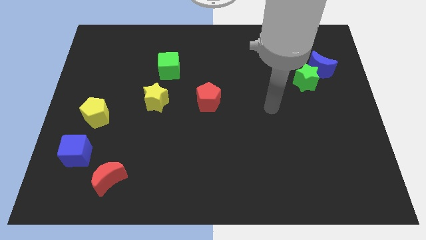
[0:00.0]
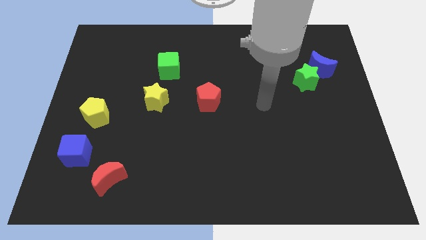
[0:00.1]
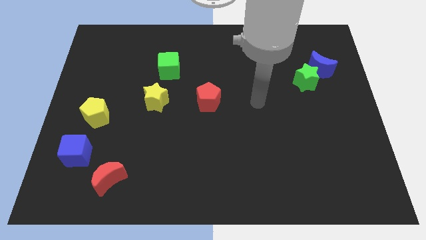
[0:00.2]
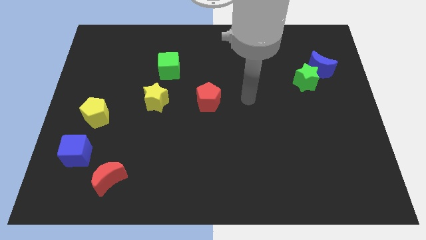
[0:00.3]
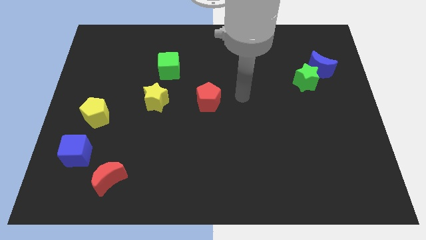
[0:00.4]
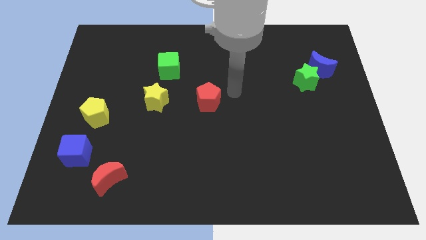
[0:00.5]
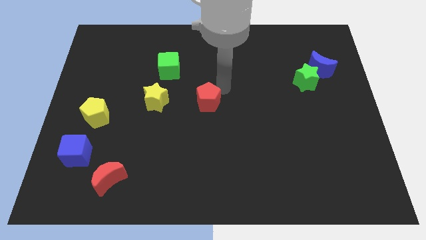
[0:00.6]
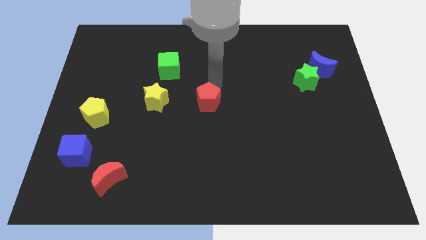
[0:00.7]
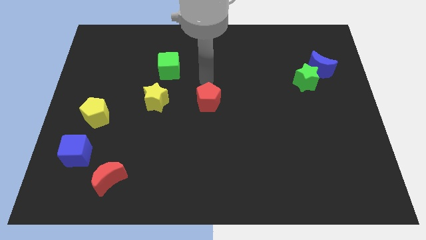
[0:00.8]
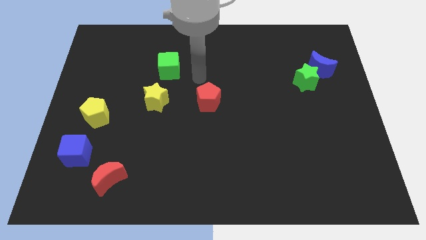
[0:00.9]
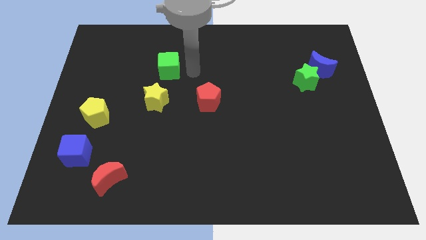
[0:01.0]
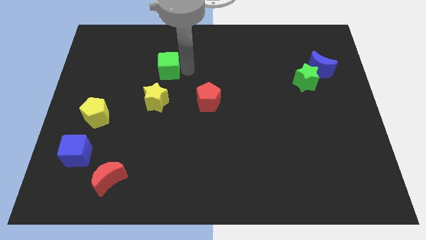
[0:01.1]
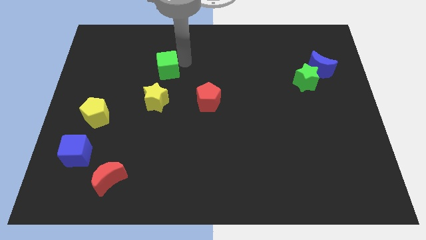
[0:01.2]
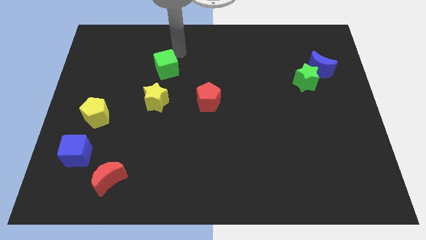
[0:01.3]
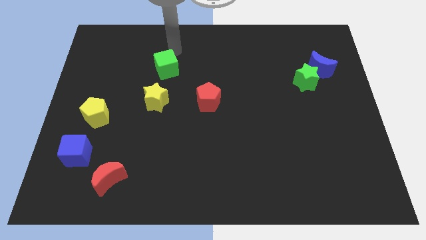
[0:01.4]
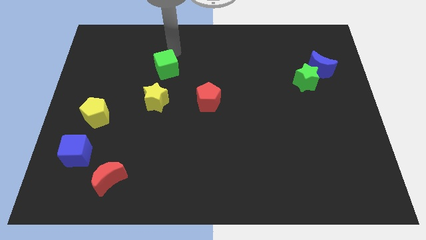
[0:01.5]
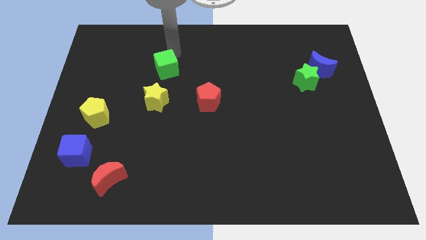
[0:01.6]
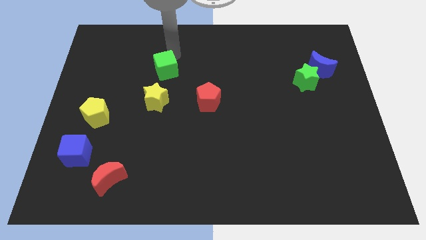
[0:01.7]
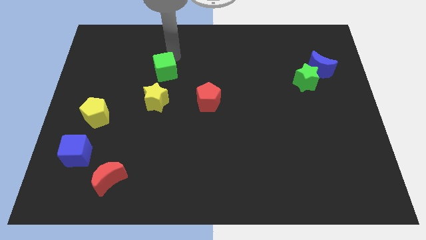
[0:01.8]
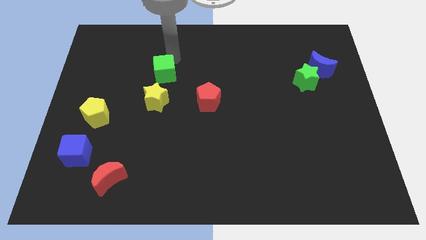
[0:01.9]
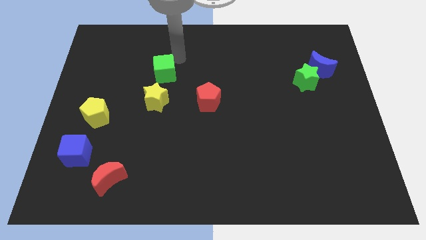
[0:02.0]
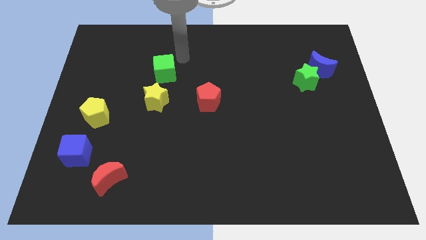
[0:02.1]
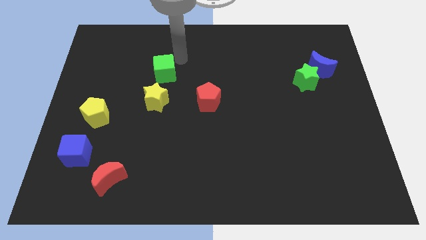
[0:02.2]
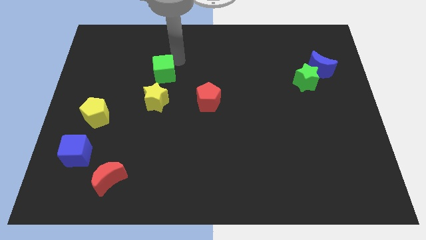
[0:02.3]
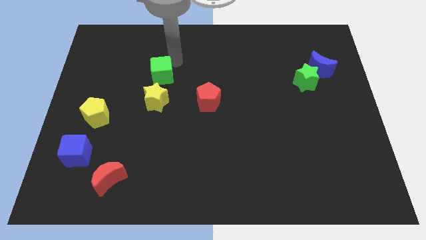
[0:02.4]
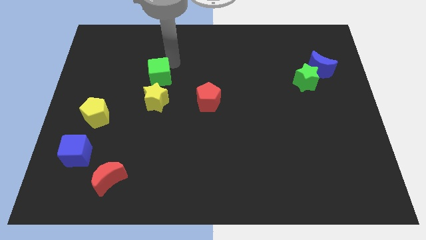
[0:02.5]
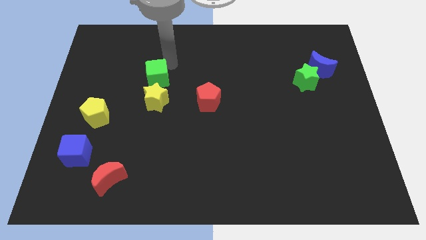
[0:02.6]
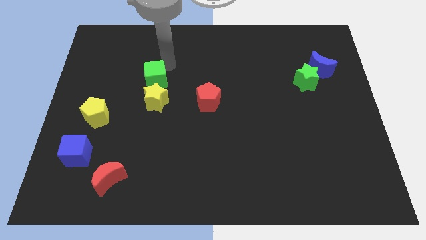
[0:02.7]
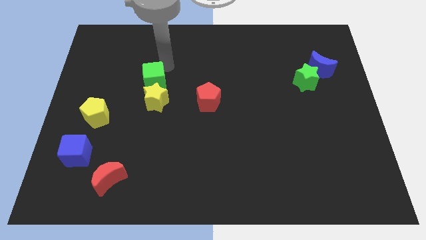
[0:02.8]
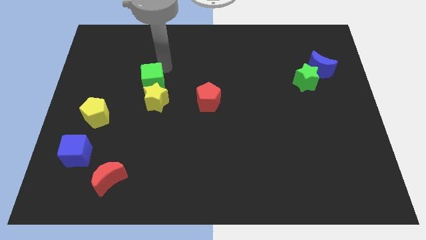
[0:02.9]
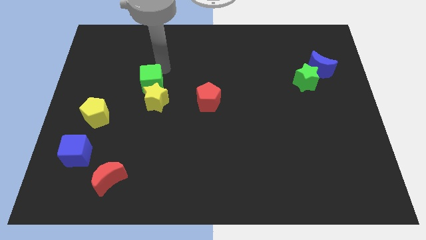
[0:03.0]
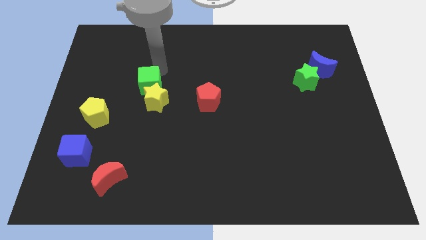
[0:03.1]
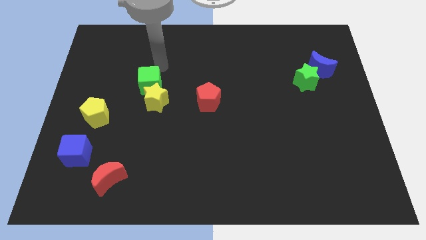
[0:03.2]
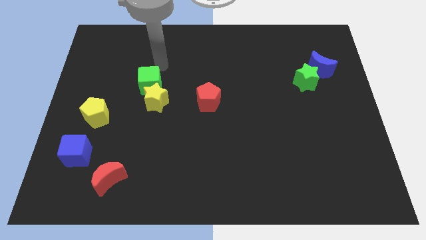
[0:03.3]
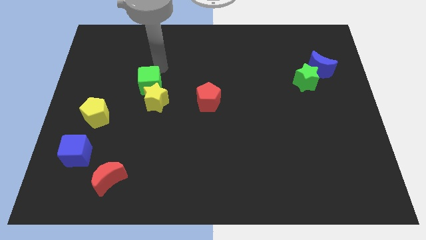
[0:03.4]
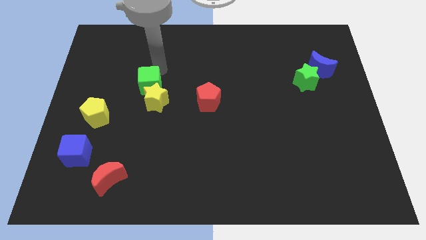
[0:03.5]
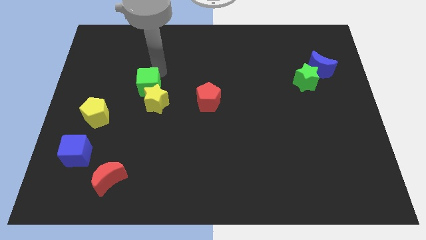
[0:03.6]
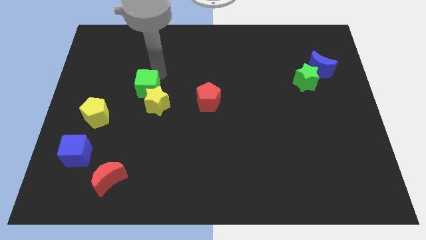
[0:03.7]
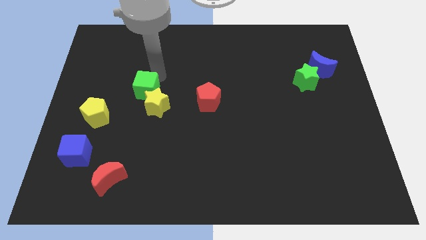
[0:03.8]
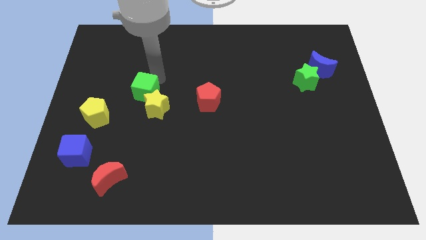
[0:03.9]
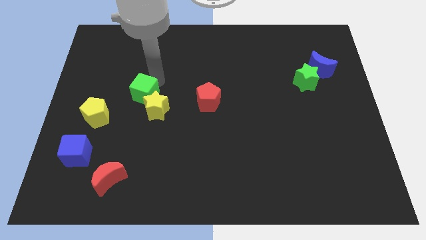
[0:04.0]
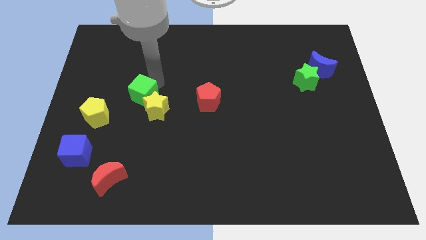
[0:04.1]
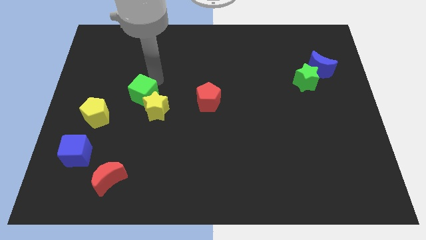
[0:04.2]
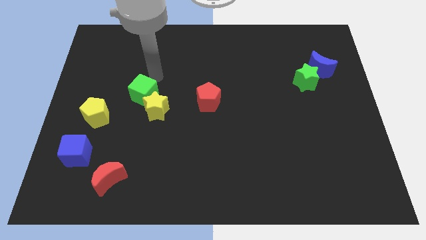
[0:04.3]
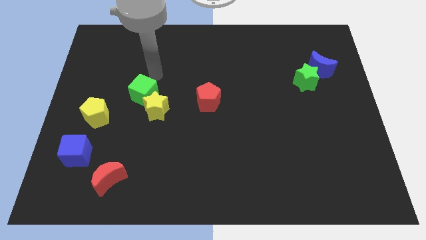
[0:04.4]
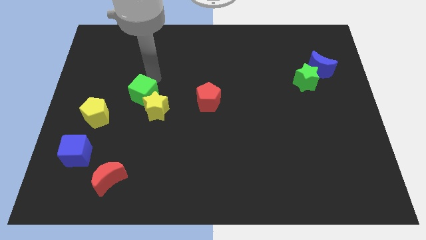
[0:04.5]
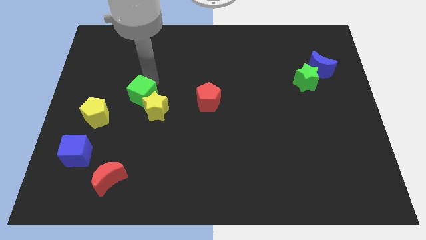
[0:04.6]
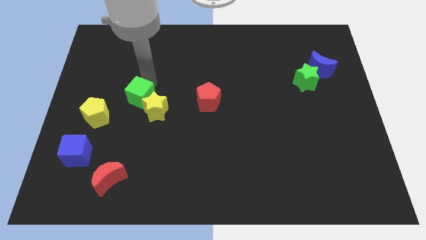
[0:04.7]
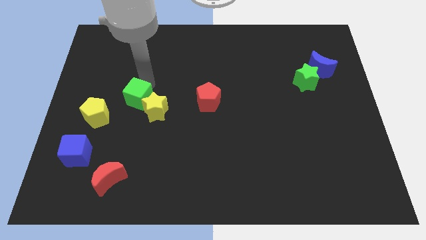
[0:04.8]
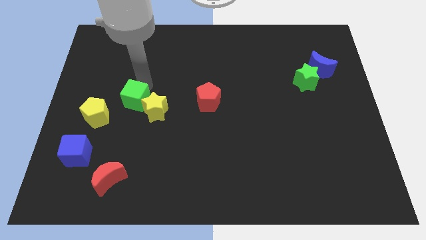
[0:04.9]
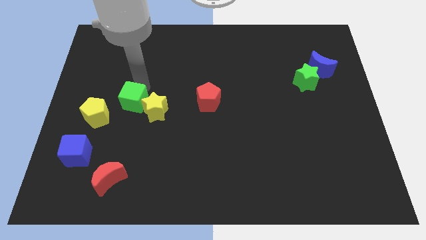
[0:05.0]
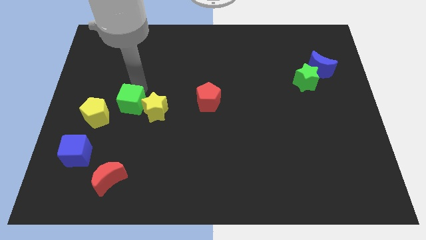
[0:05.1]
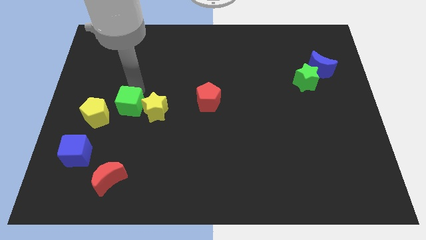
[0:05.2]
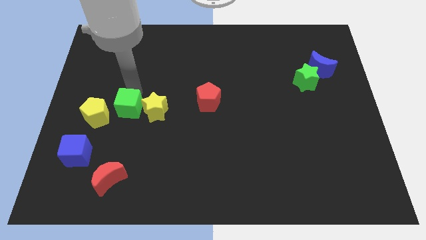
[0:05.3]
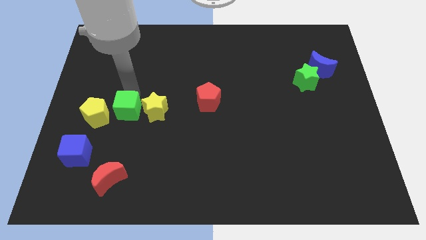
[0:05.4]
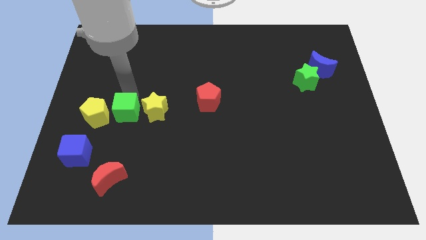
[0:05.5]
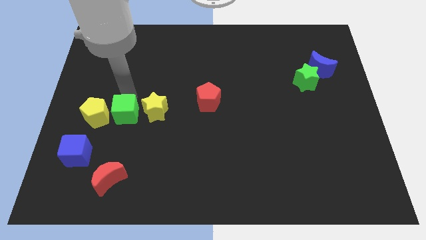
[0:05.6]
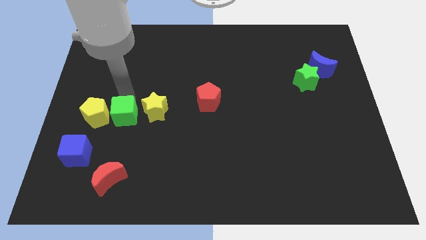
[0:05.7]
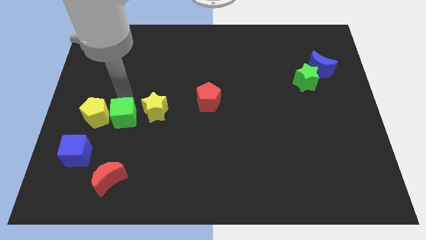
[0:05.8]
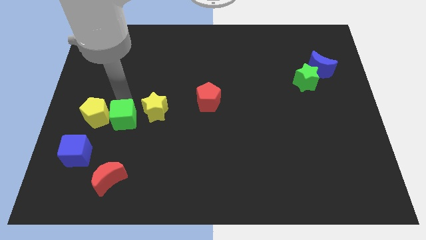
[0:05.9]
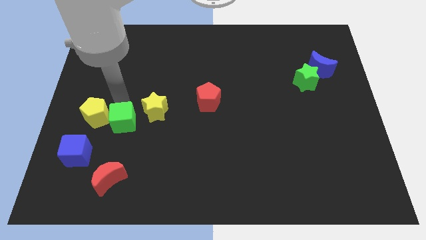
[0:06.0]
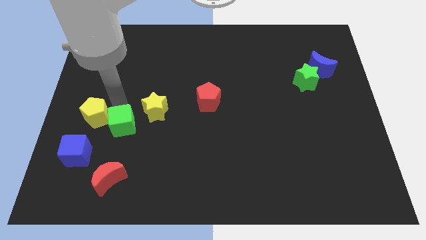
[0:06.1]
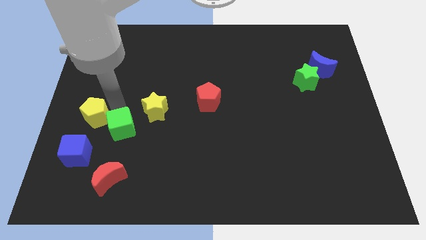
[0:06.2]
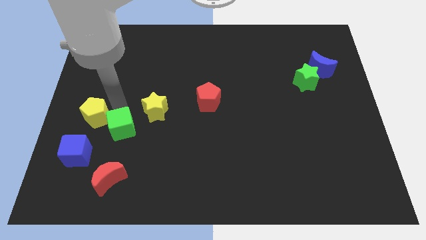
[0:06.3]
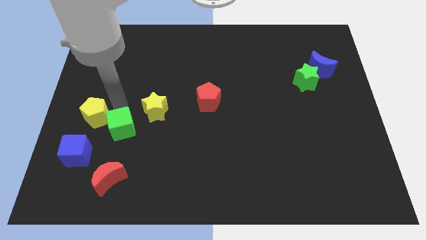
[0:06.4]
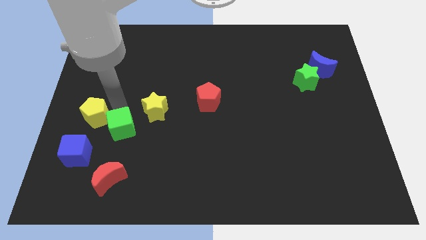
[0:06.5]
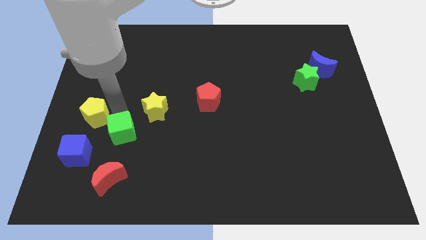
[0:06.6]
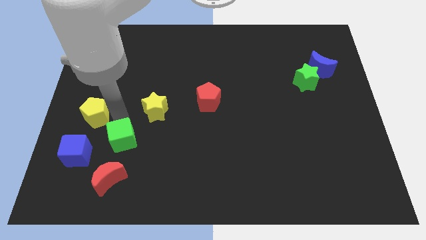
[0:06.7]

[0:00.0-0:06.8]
move the green cube to the right side of the blue cube
